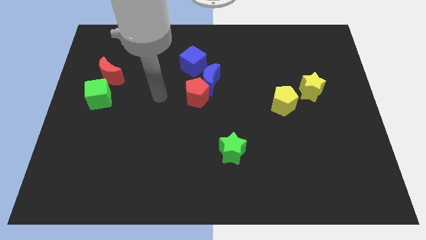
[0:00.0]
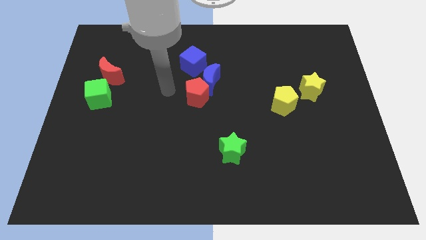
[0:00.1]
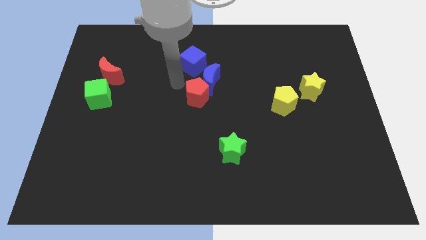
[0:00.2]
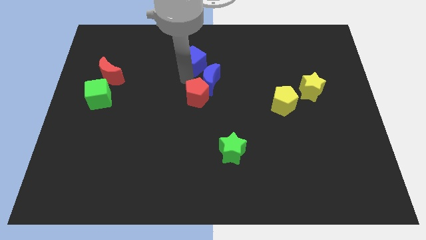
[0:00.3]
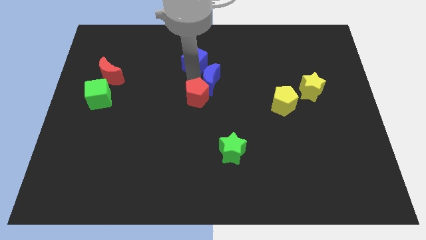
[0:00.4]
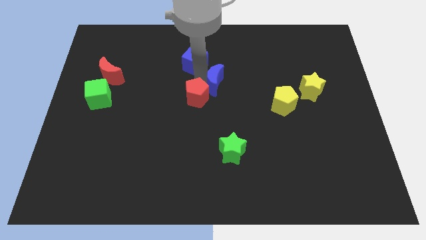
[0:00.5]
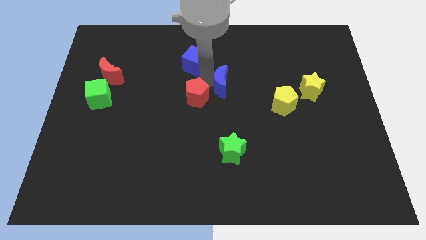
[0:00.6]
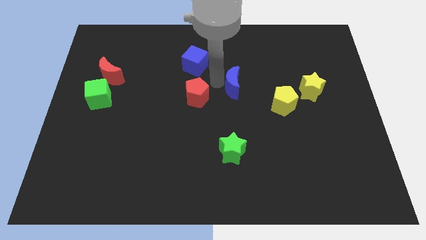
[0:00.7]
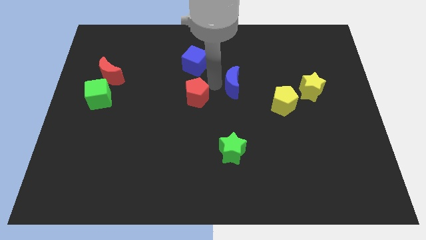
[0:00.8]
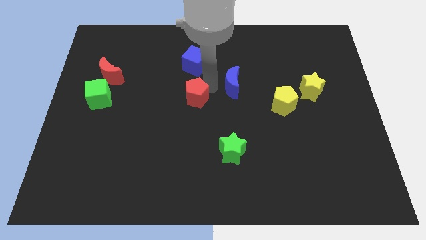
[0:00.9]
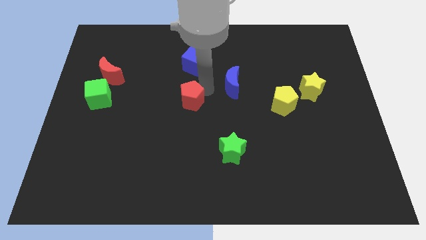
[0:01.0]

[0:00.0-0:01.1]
separate the red pentagon from the blue moon

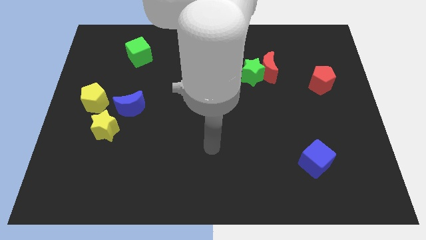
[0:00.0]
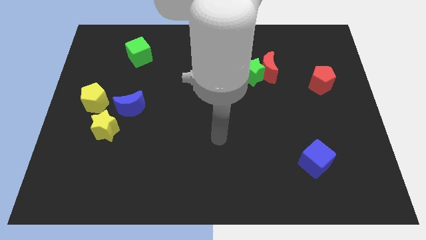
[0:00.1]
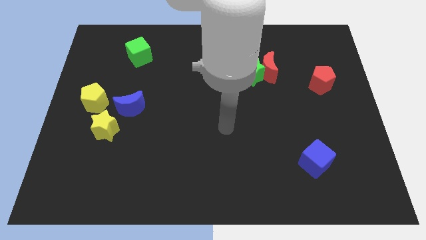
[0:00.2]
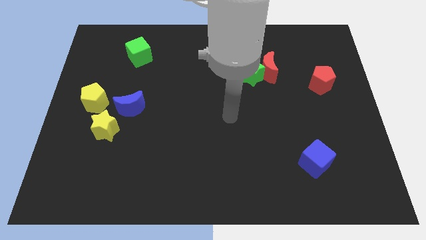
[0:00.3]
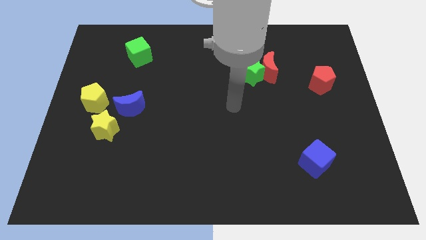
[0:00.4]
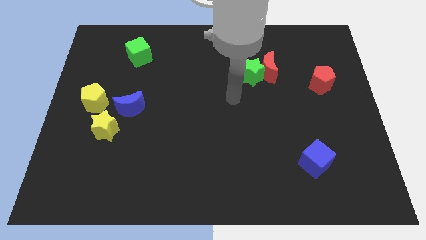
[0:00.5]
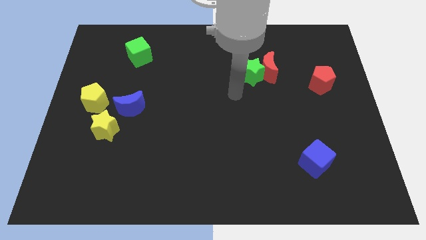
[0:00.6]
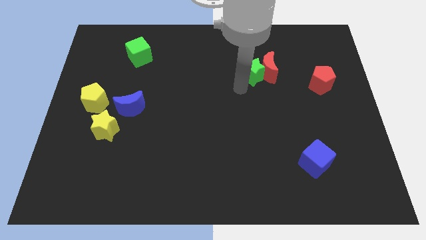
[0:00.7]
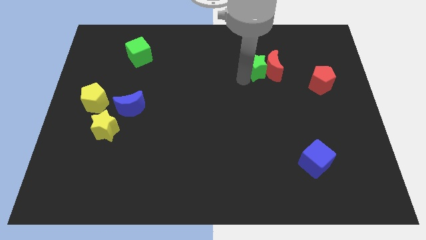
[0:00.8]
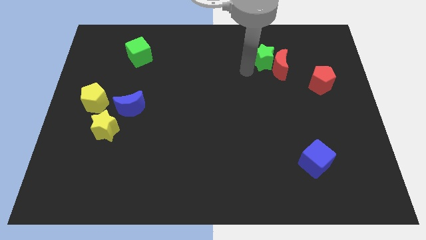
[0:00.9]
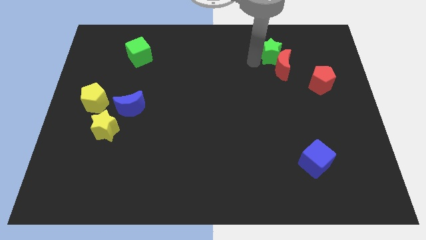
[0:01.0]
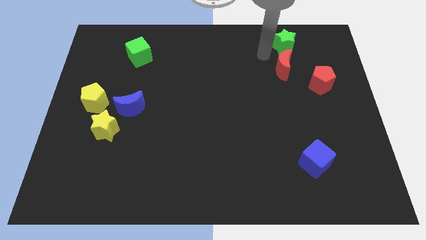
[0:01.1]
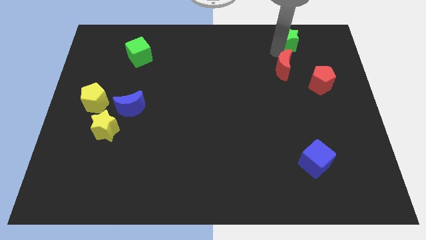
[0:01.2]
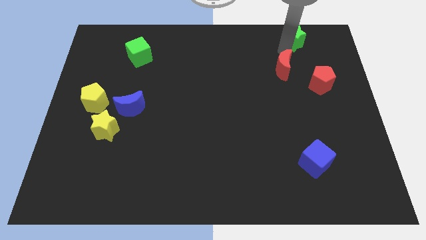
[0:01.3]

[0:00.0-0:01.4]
separate the red moon from the green star

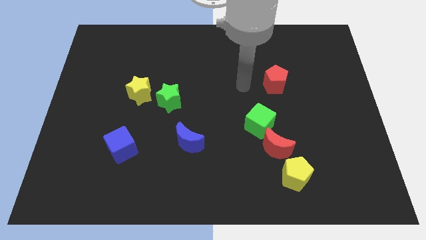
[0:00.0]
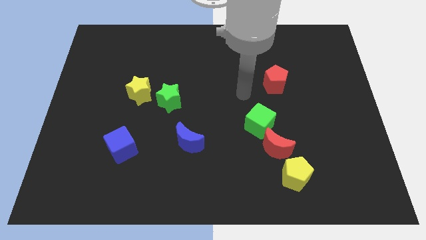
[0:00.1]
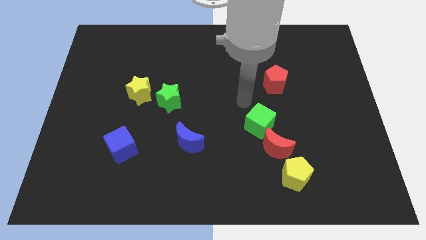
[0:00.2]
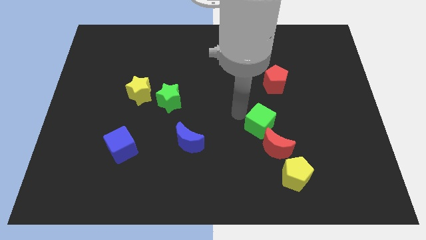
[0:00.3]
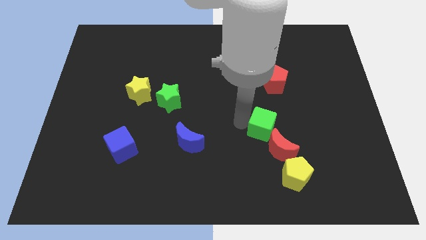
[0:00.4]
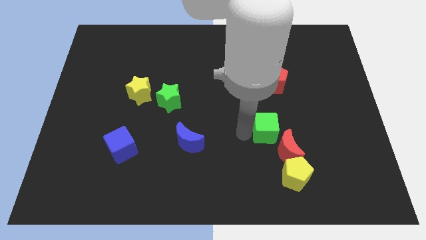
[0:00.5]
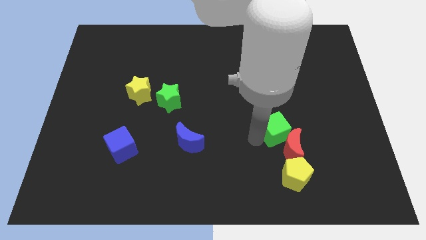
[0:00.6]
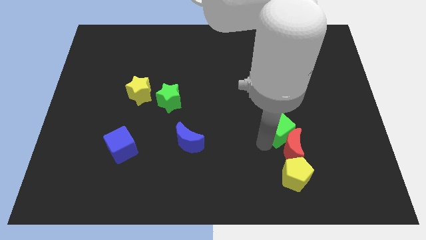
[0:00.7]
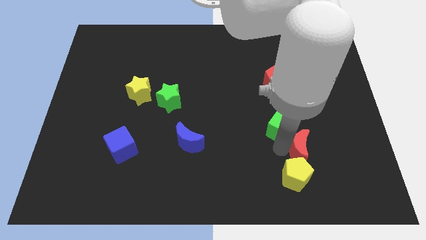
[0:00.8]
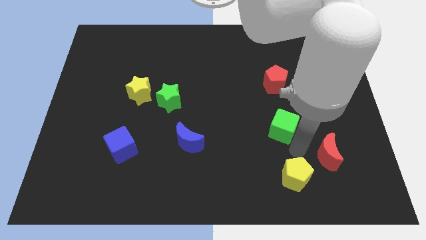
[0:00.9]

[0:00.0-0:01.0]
move the green cube away from the red moon

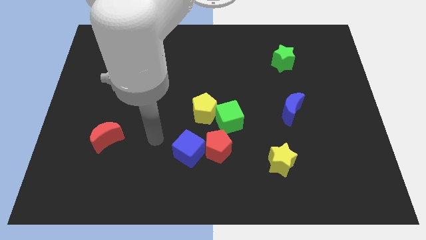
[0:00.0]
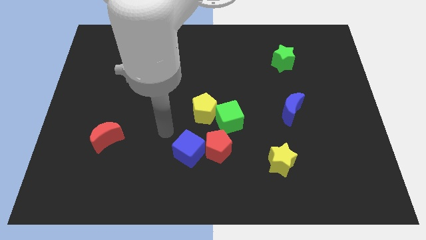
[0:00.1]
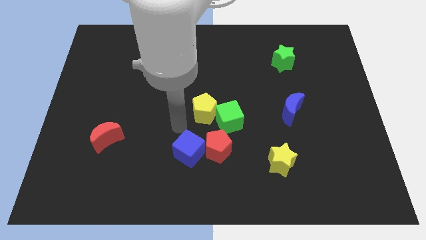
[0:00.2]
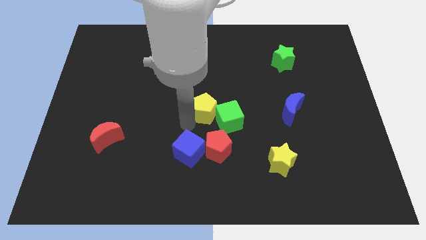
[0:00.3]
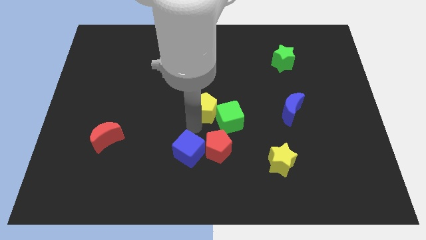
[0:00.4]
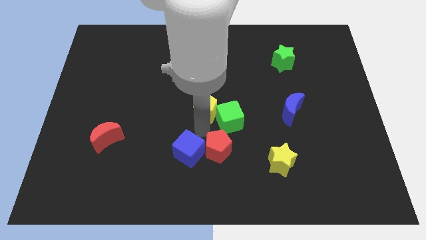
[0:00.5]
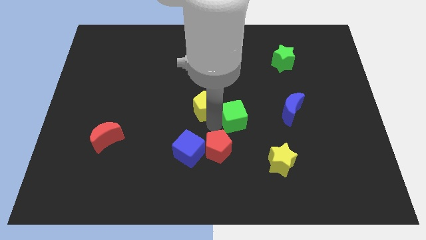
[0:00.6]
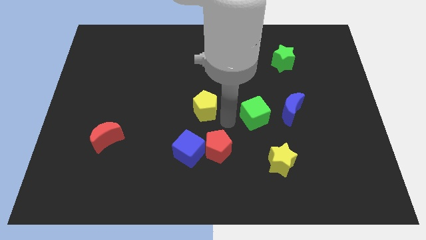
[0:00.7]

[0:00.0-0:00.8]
pull the yellow pentagon apart from the green cube

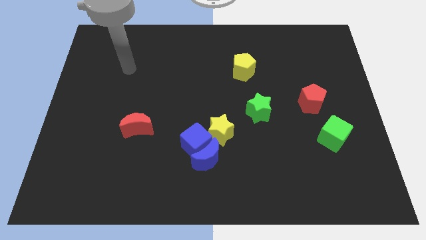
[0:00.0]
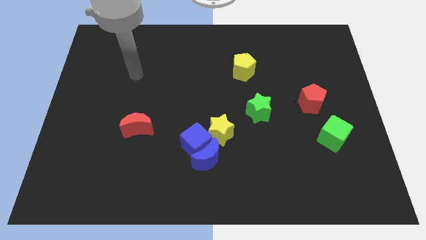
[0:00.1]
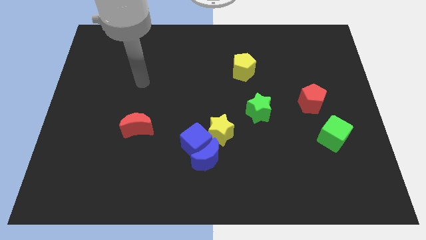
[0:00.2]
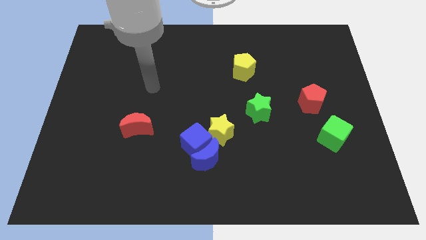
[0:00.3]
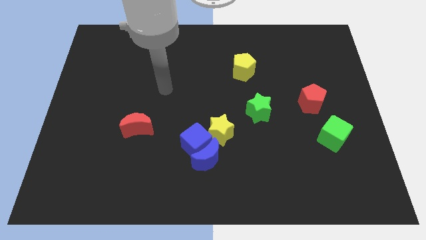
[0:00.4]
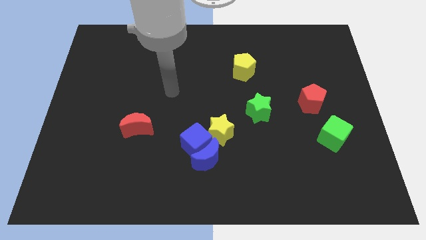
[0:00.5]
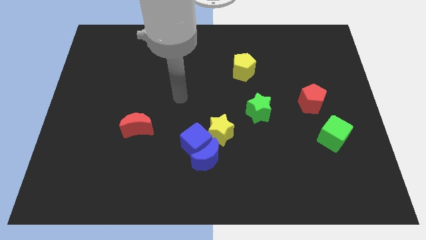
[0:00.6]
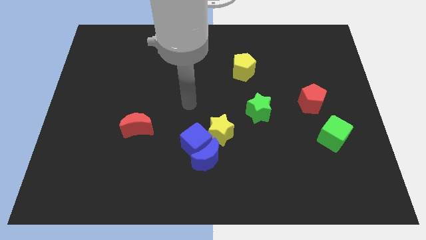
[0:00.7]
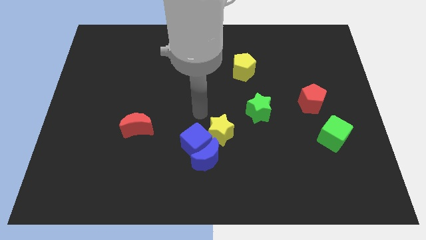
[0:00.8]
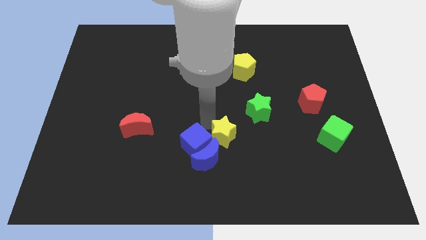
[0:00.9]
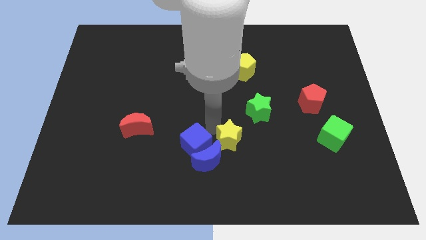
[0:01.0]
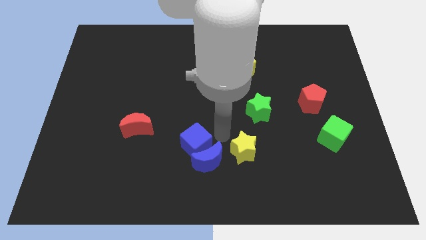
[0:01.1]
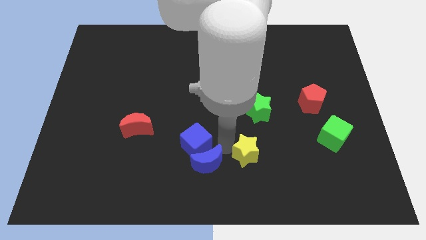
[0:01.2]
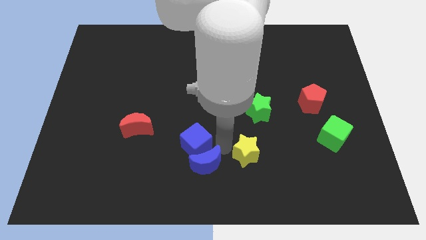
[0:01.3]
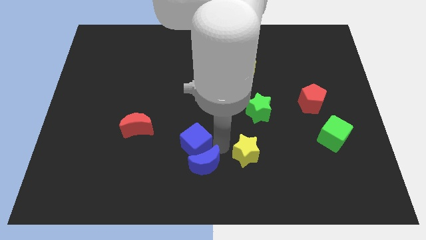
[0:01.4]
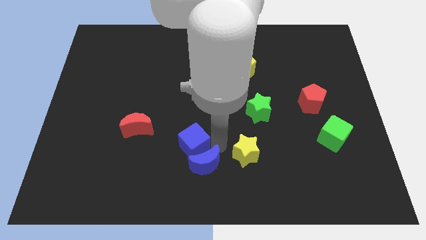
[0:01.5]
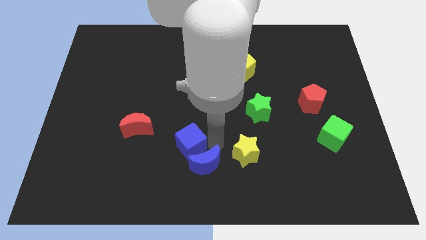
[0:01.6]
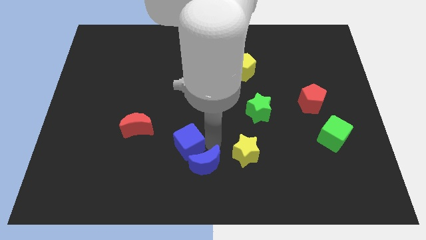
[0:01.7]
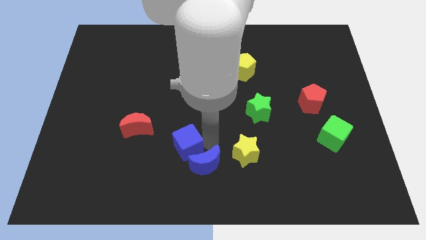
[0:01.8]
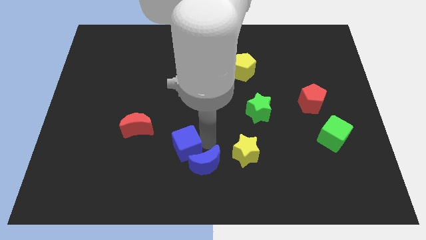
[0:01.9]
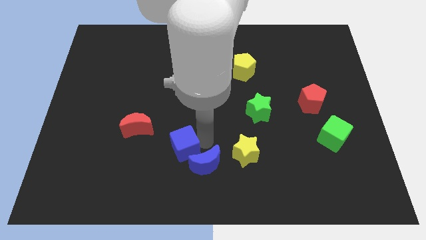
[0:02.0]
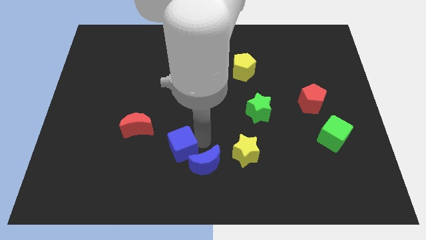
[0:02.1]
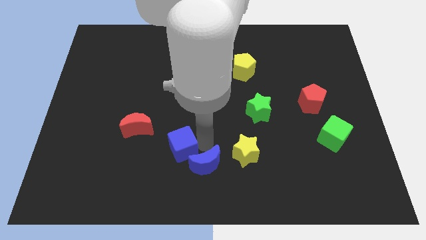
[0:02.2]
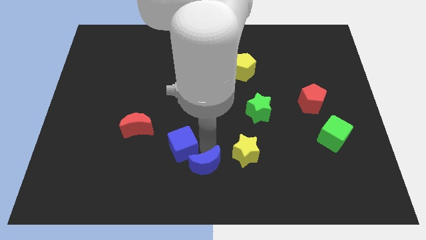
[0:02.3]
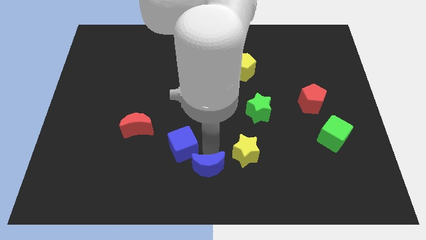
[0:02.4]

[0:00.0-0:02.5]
separate the blue cube from the blue moon and yellow star

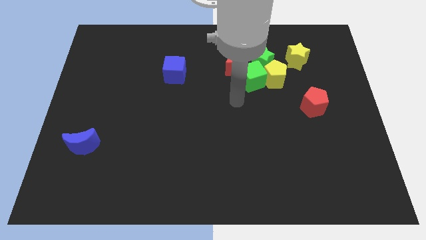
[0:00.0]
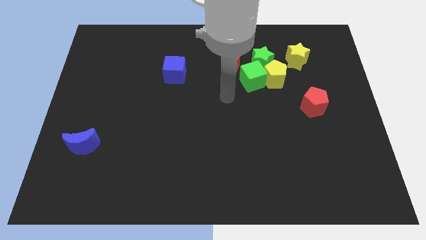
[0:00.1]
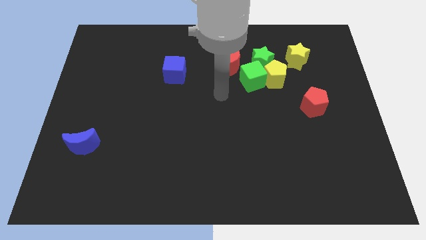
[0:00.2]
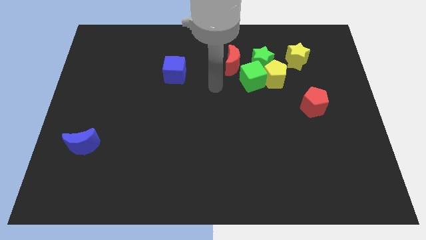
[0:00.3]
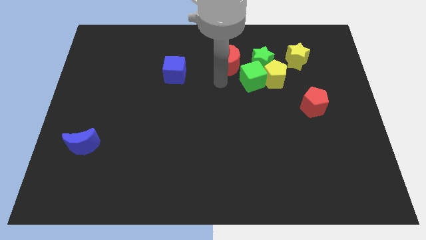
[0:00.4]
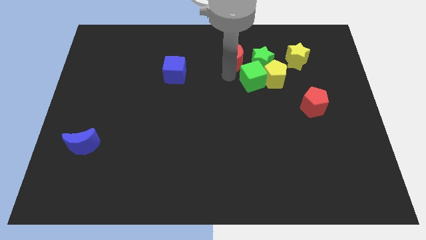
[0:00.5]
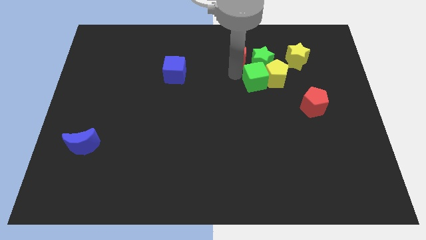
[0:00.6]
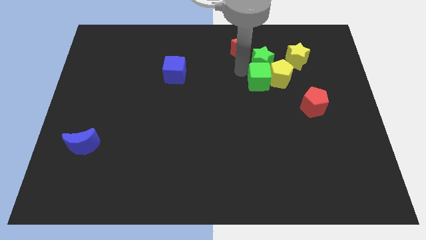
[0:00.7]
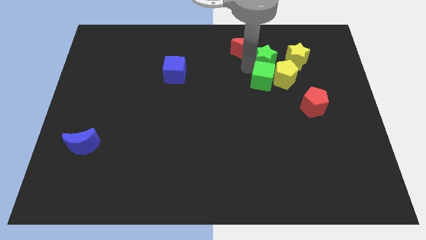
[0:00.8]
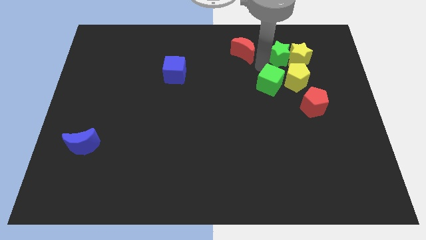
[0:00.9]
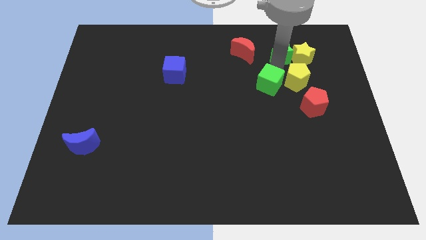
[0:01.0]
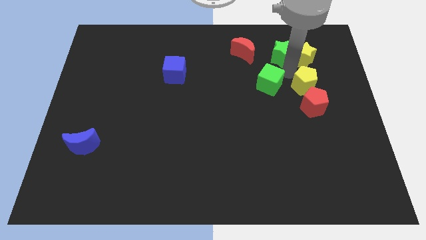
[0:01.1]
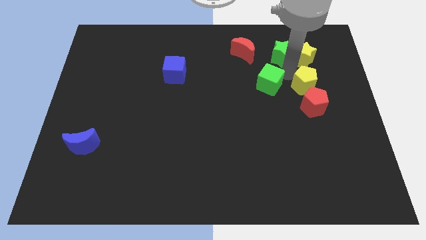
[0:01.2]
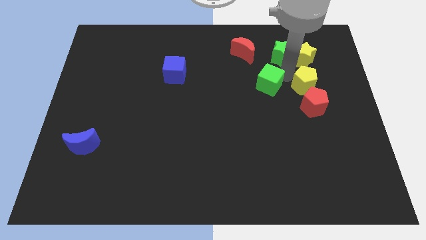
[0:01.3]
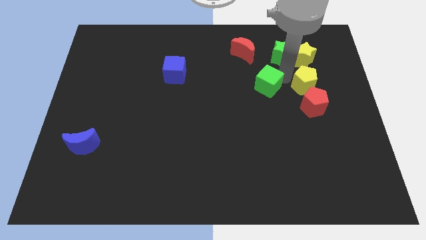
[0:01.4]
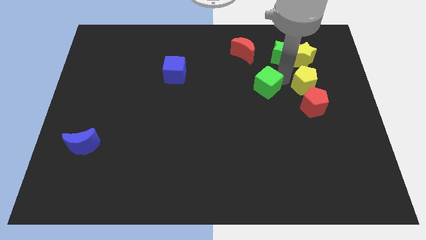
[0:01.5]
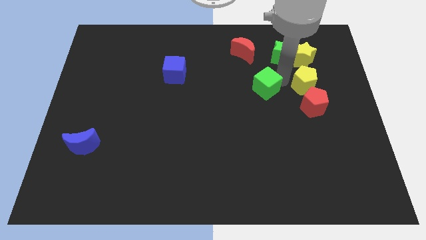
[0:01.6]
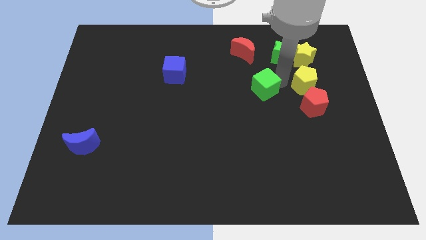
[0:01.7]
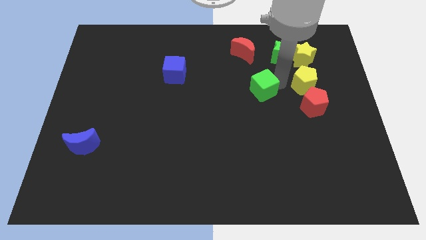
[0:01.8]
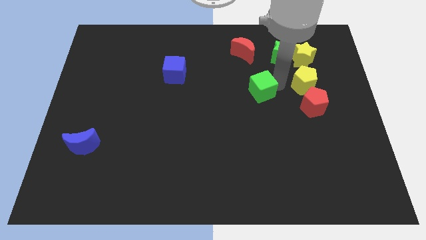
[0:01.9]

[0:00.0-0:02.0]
move the green cube away from the yellow pentagon, green star, and red moon

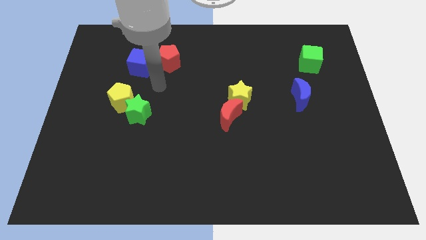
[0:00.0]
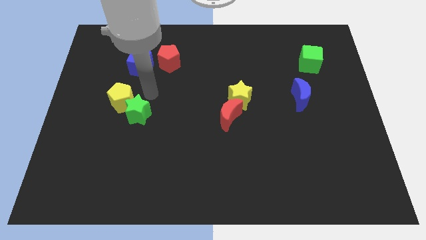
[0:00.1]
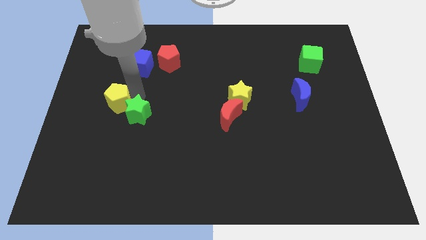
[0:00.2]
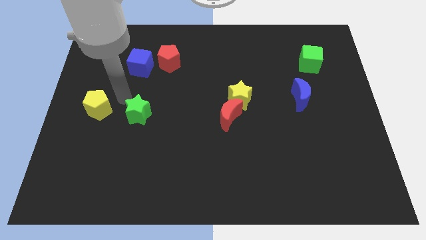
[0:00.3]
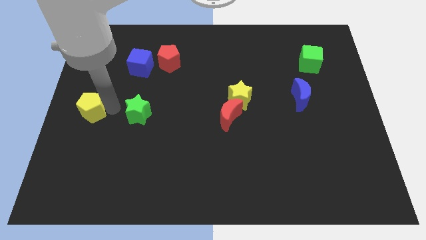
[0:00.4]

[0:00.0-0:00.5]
pull the green star apart from the yellow pentagon

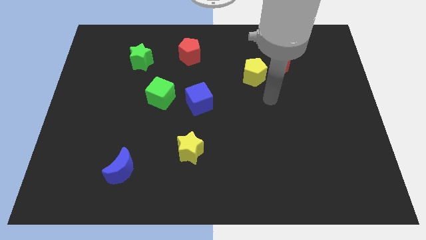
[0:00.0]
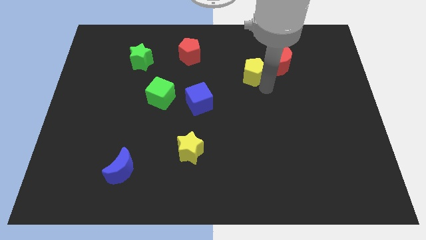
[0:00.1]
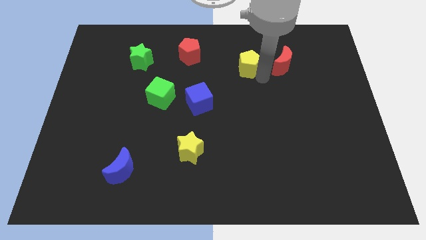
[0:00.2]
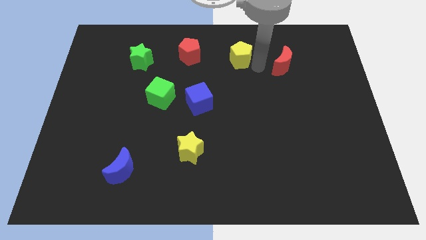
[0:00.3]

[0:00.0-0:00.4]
move the red moon away from the yellow pentagon
